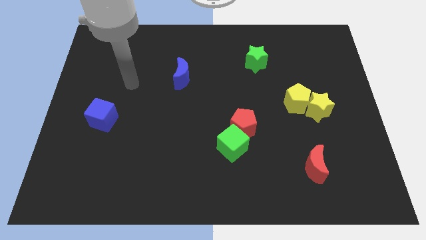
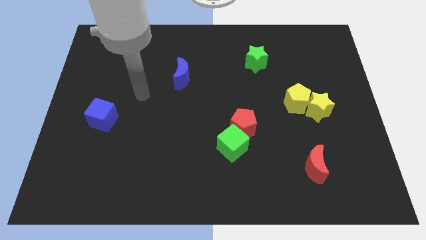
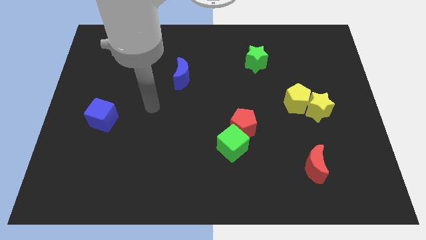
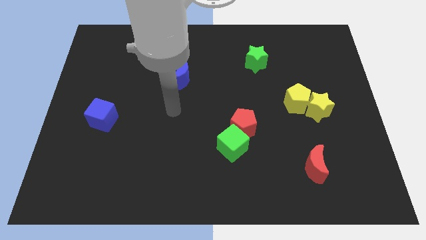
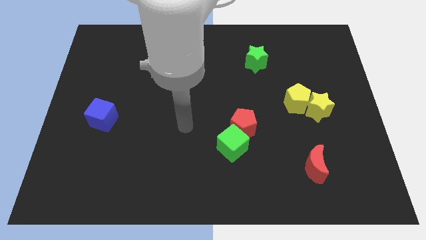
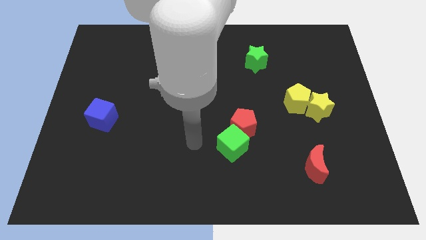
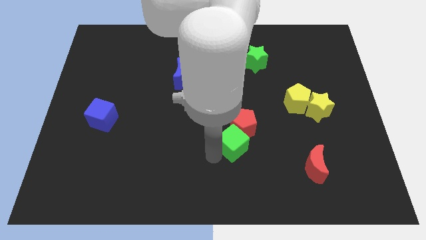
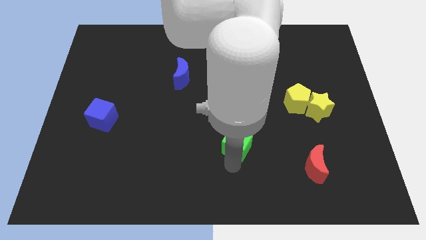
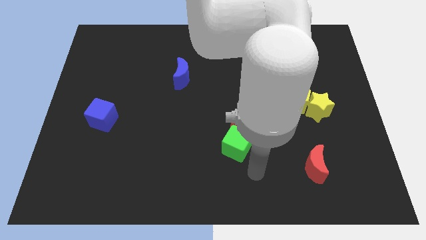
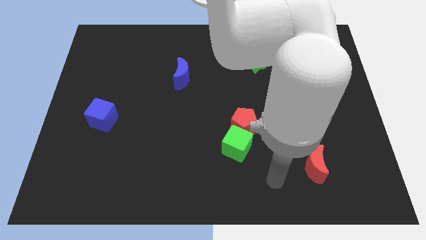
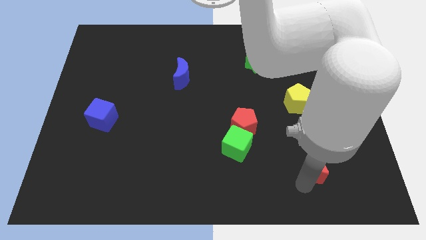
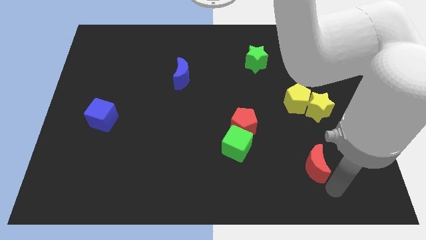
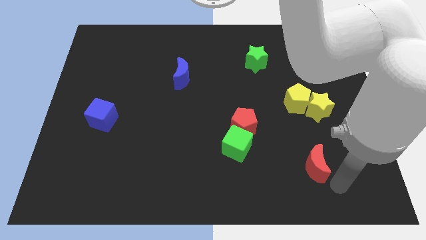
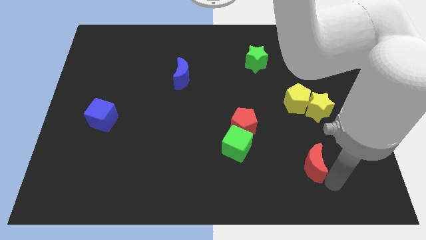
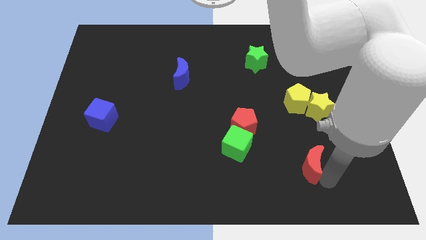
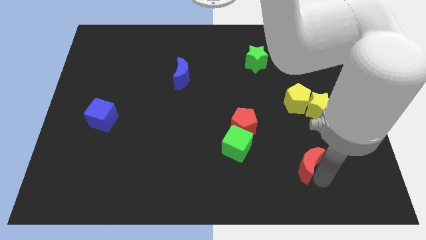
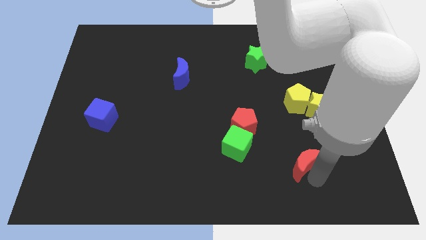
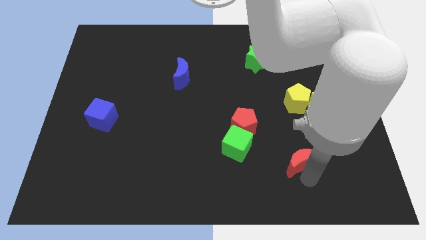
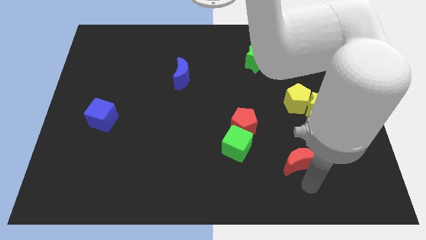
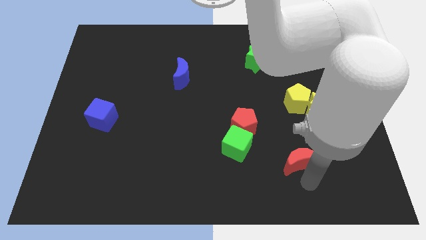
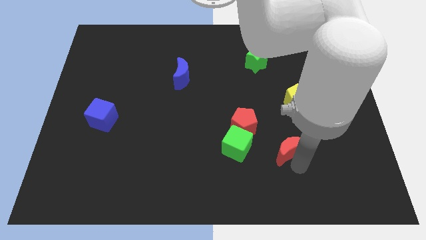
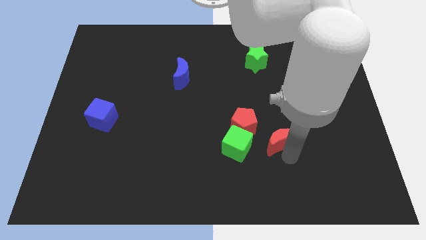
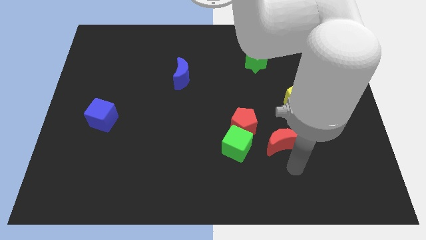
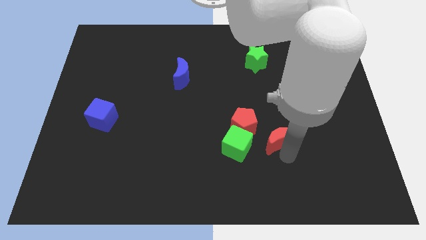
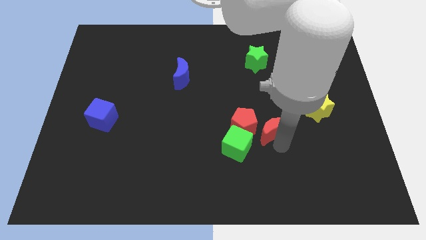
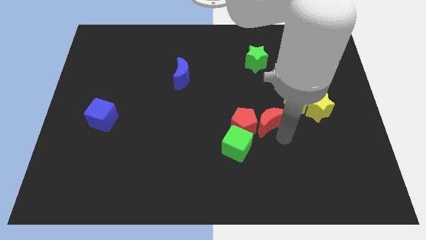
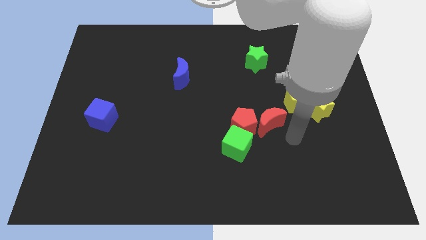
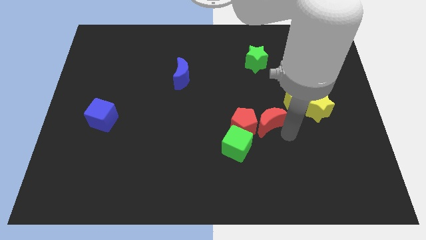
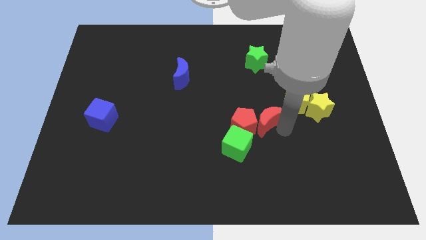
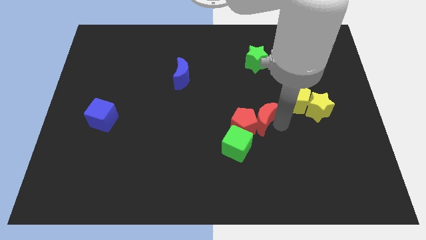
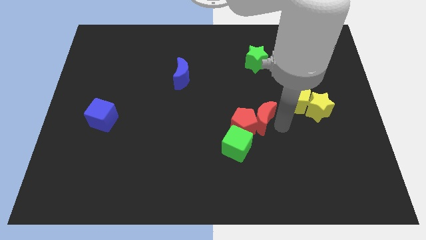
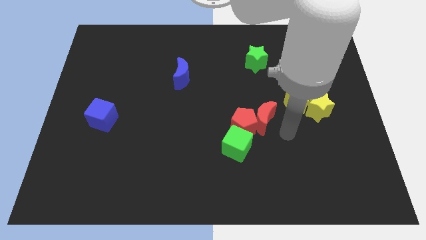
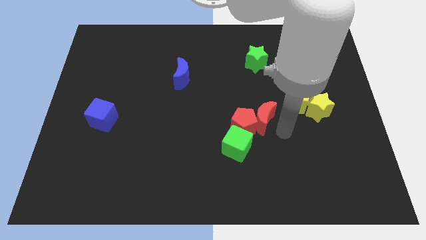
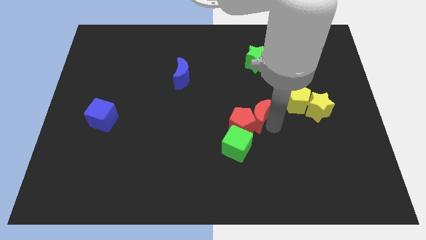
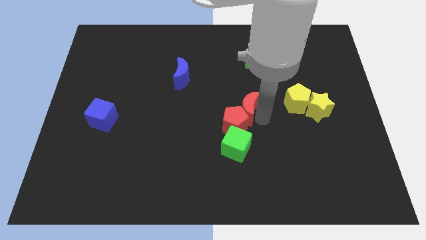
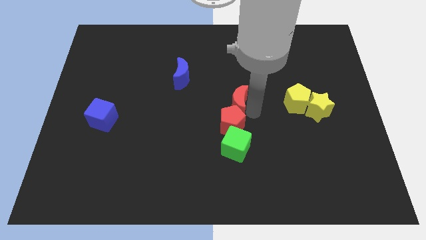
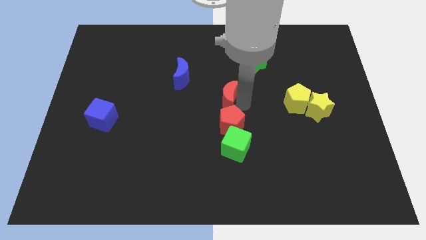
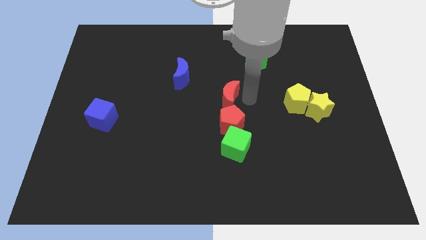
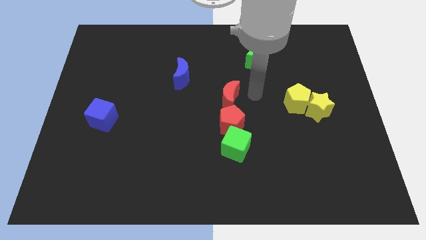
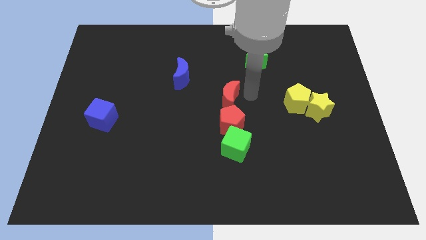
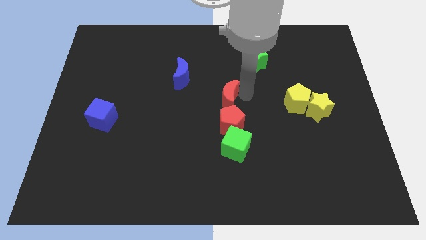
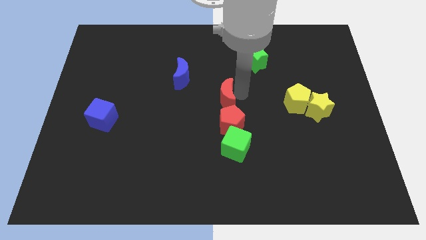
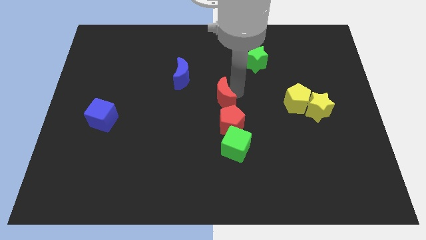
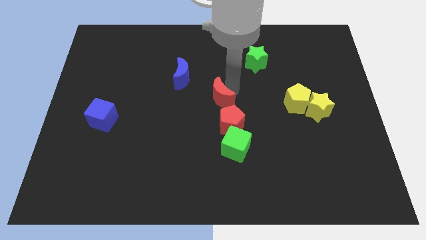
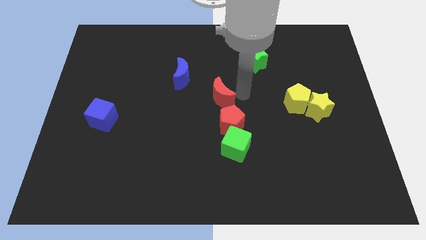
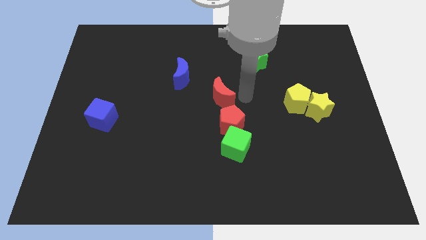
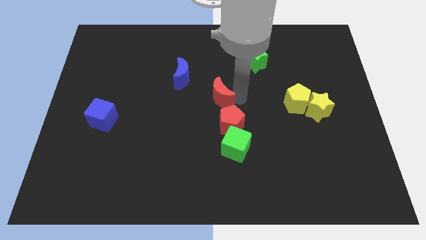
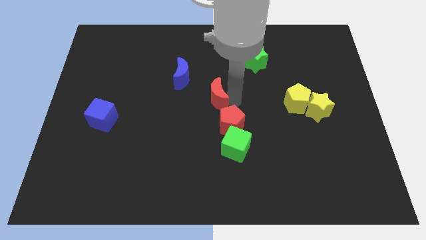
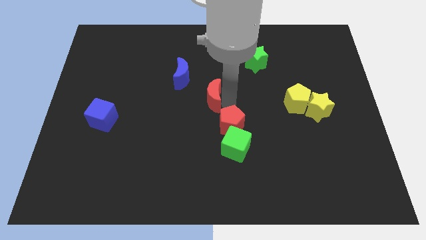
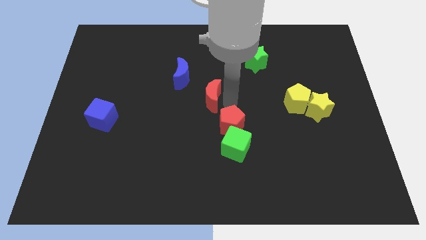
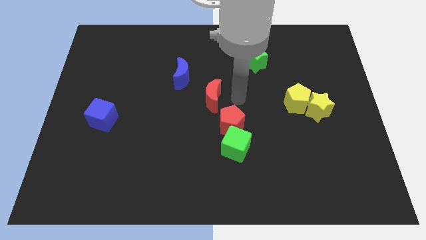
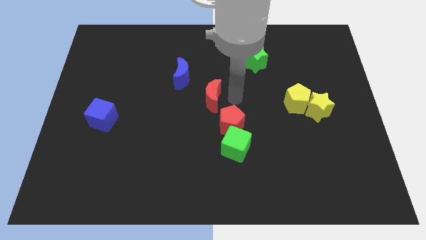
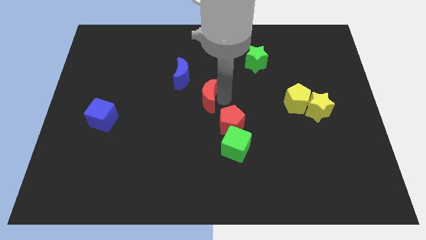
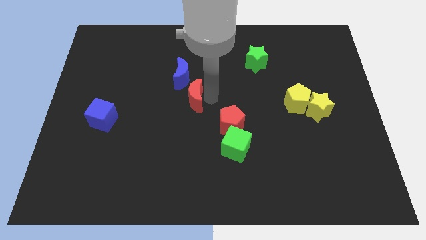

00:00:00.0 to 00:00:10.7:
put the red moon below the blue moon

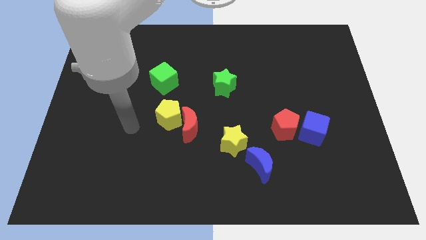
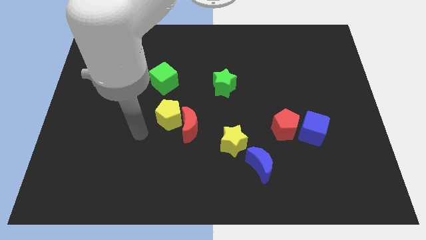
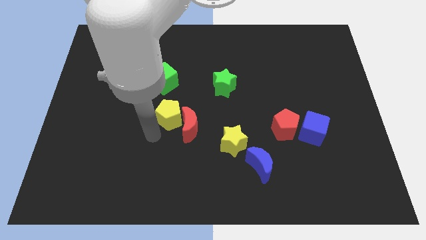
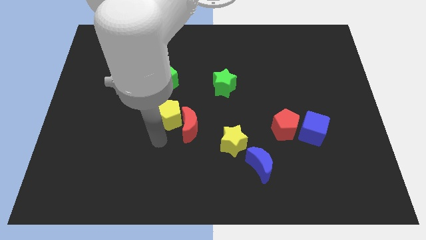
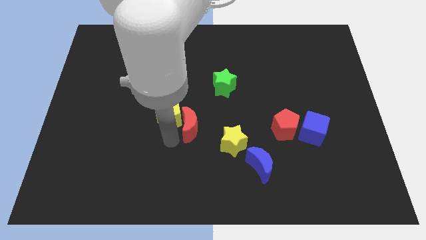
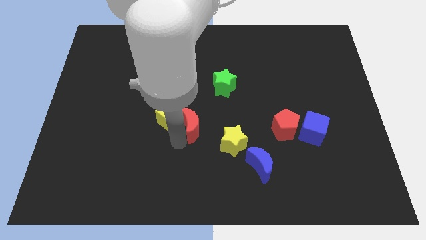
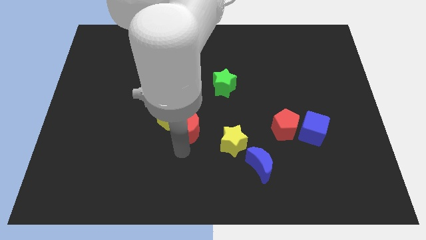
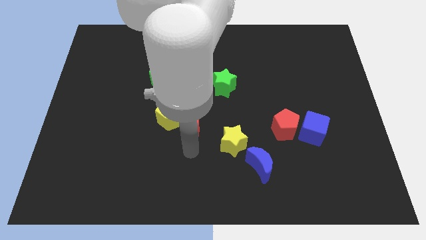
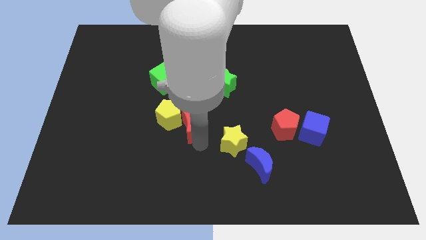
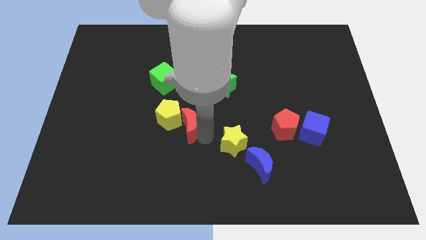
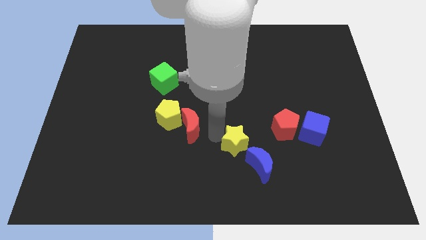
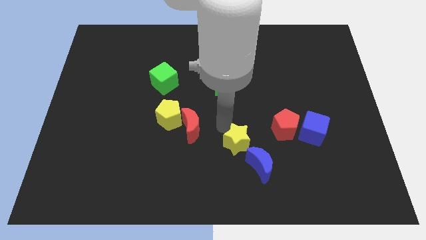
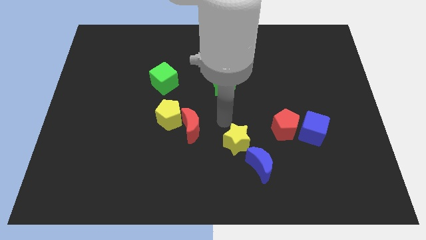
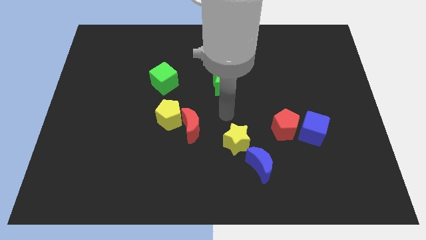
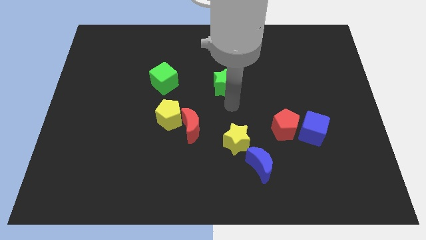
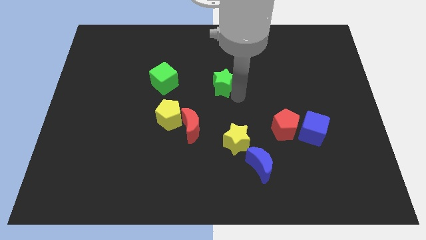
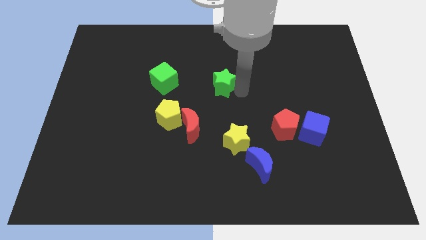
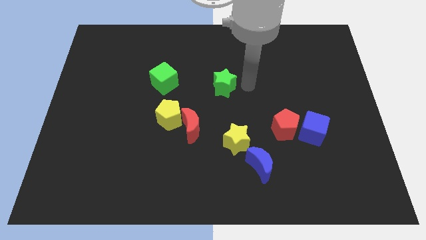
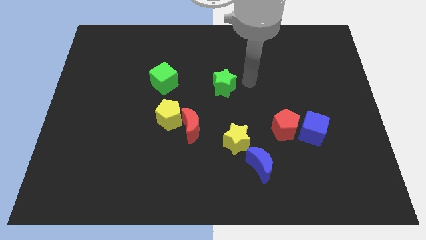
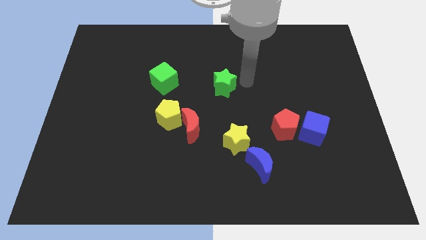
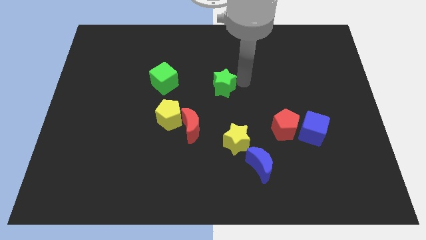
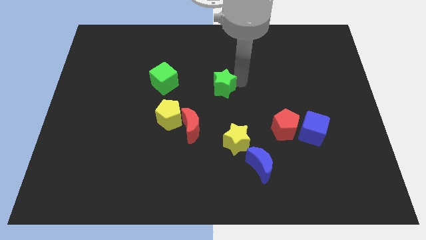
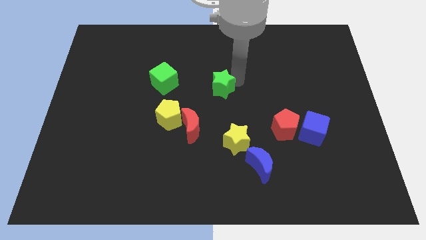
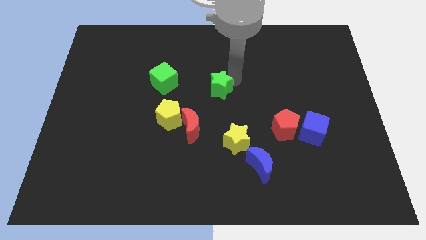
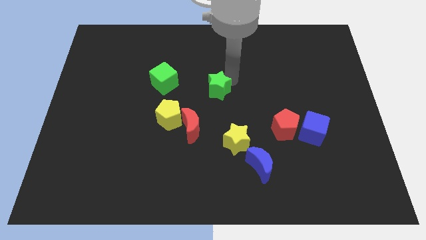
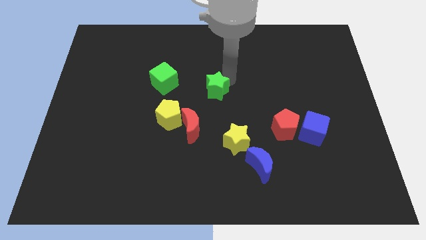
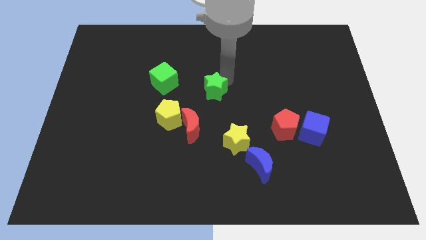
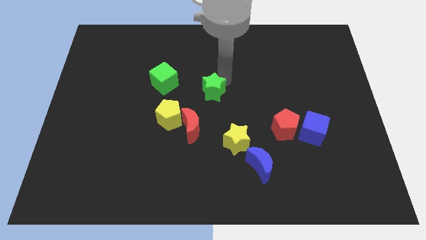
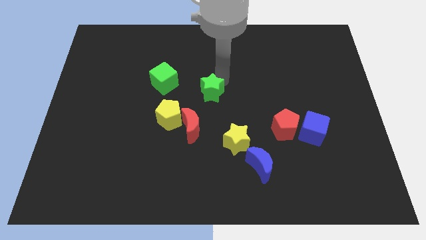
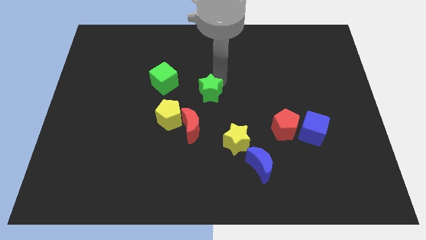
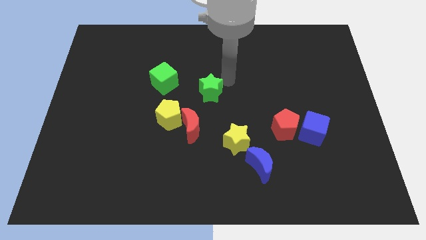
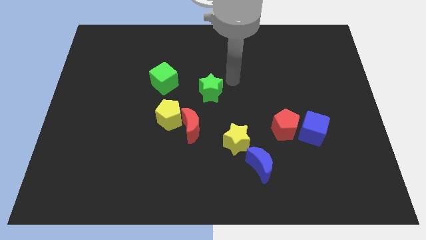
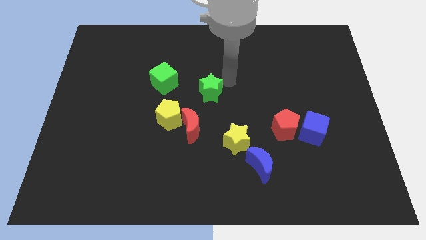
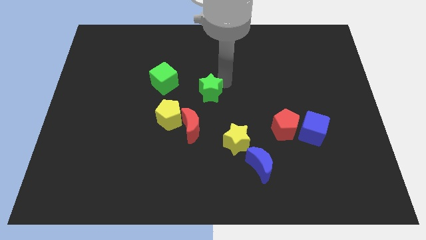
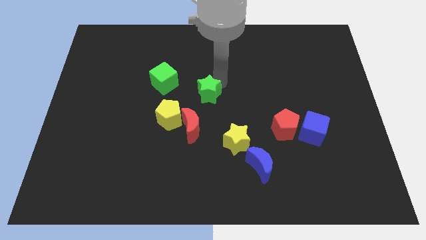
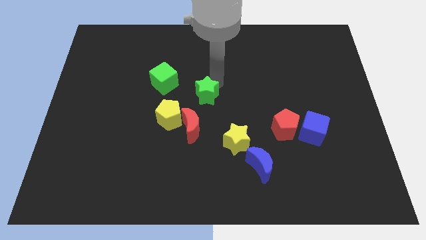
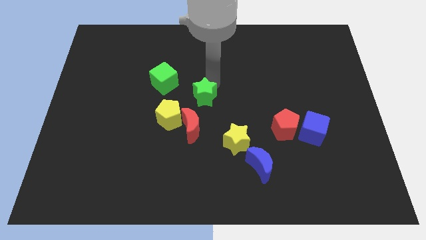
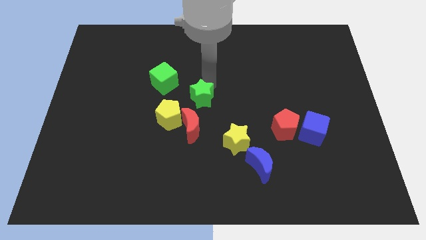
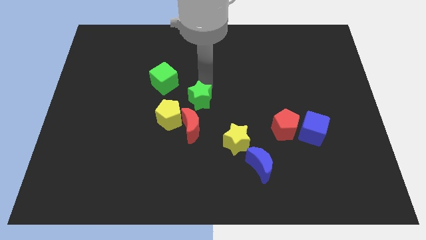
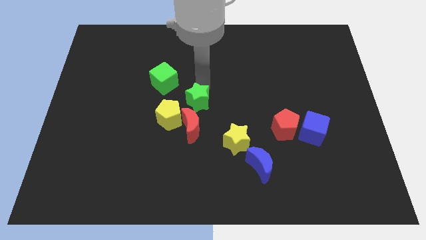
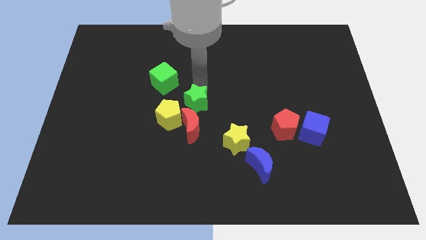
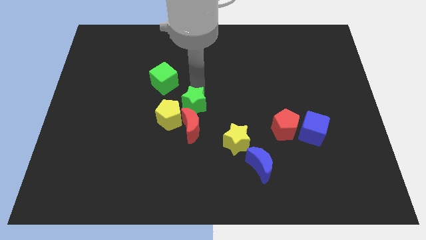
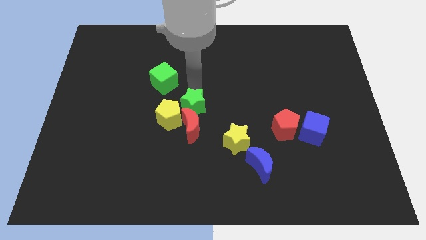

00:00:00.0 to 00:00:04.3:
move the green star to the top left of the red moon
